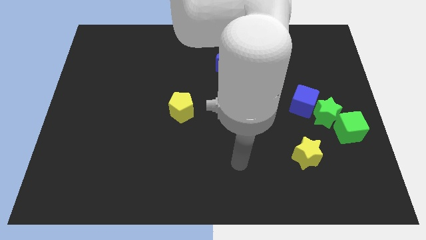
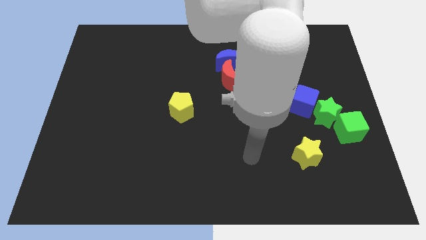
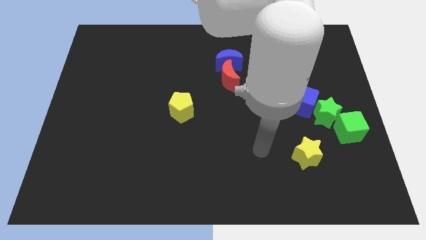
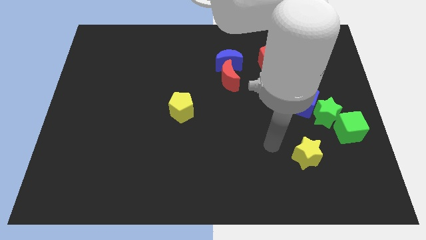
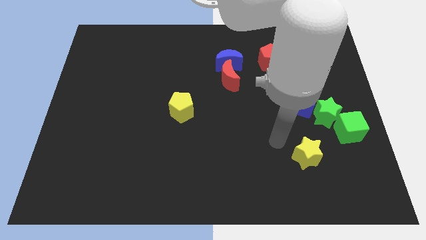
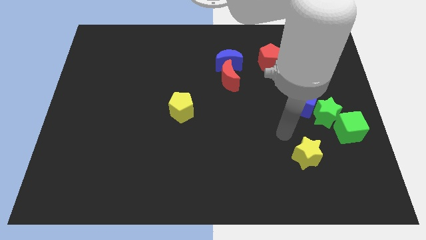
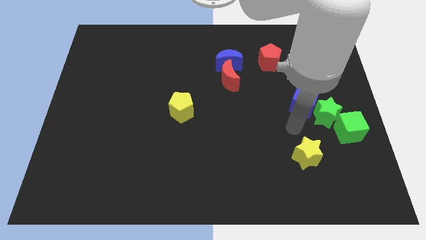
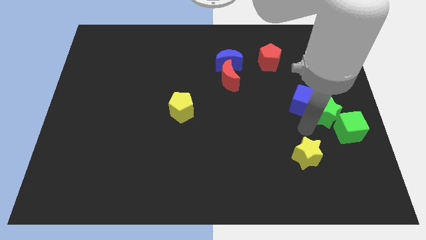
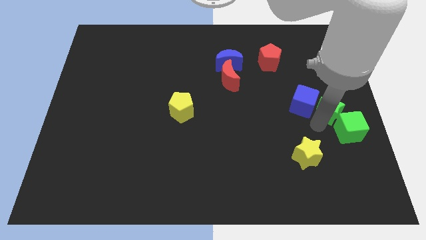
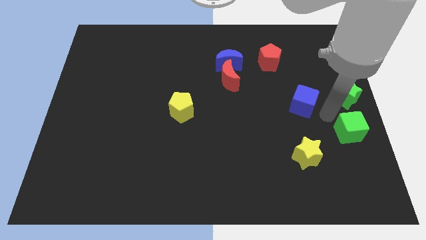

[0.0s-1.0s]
pull the blue cube apart from the green star

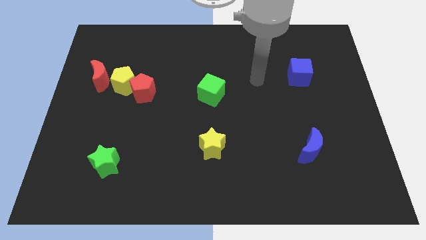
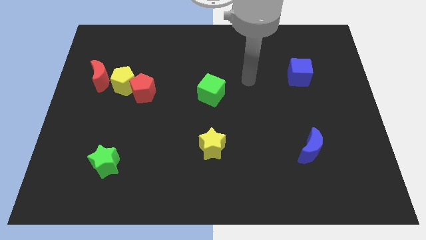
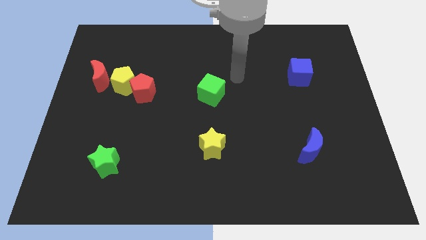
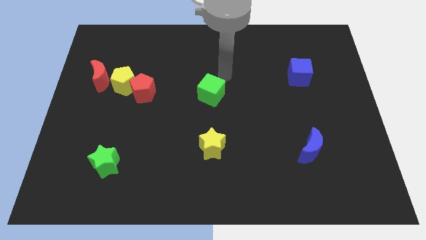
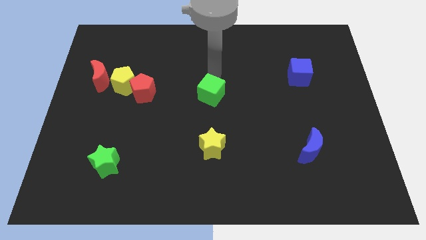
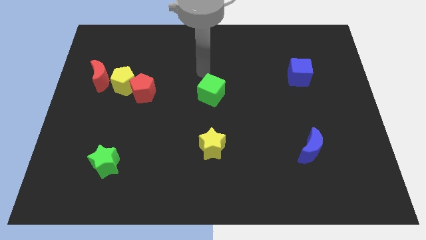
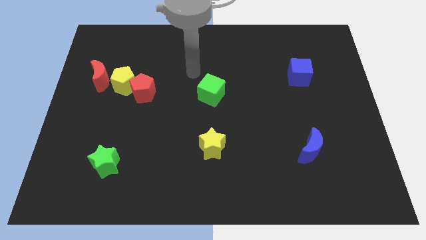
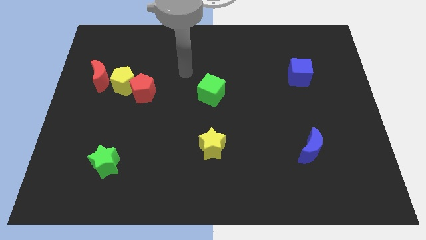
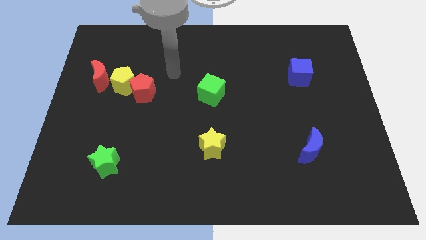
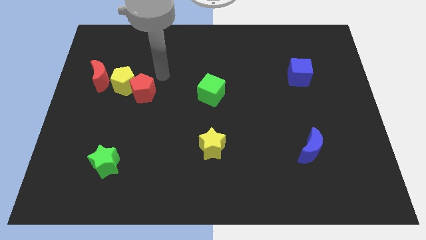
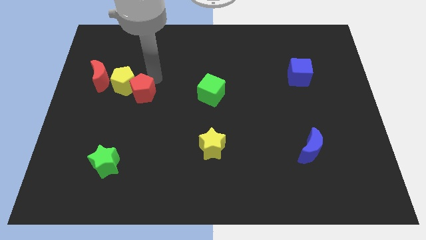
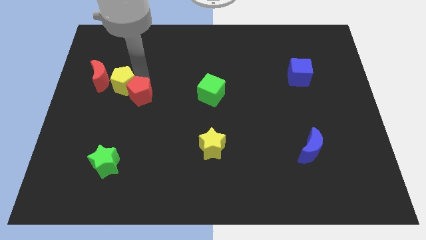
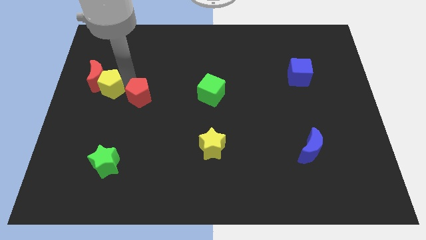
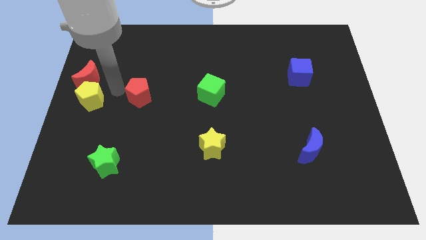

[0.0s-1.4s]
move the red pentagon away from the yellow pentagon

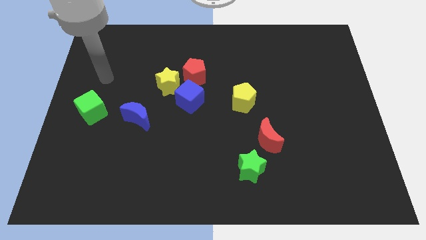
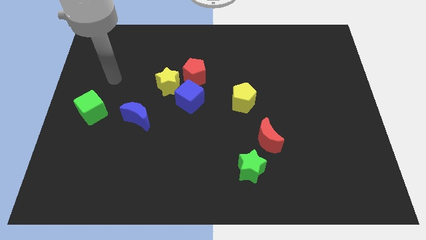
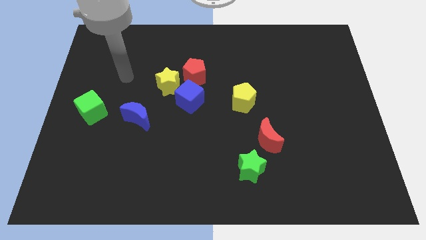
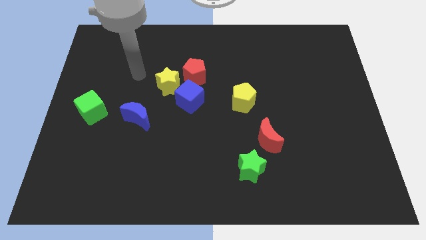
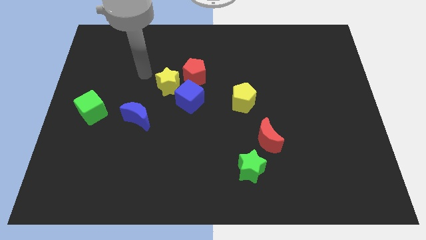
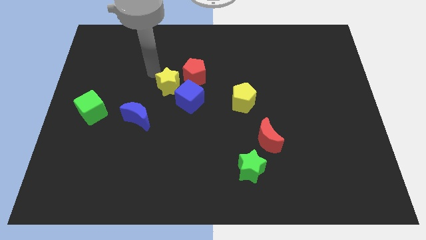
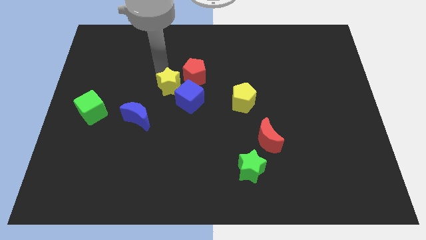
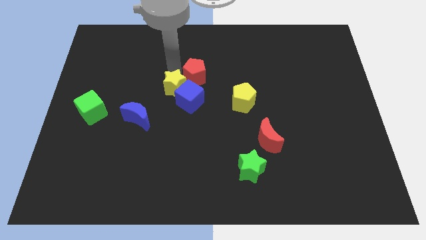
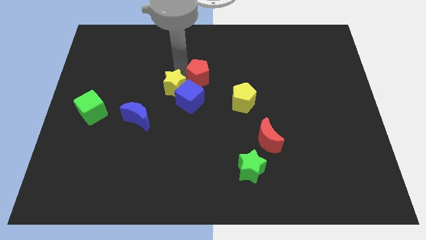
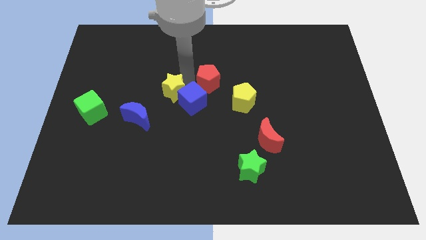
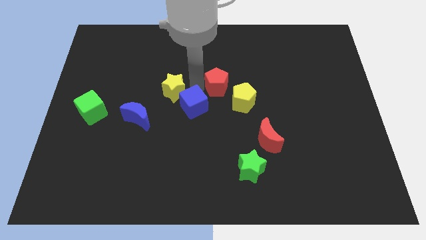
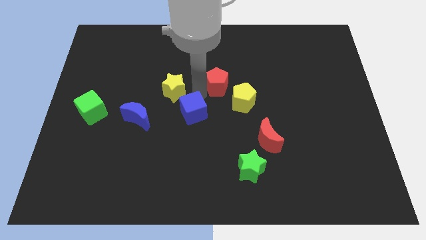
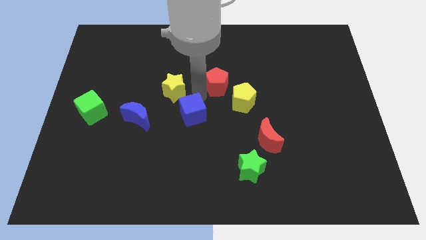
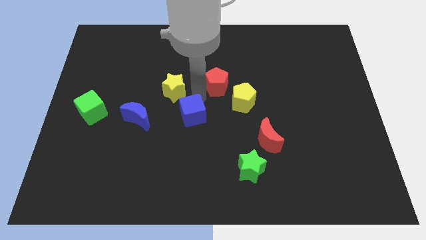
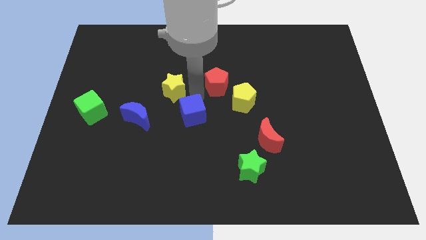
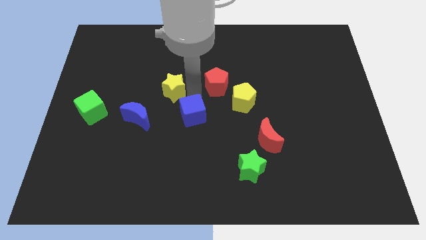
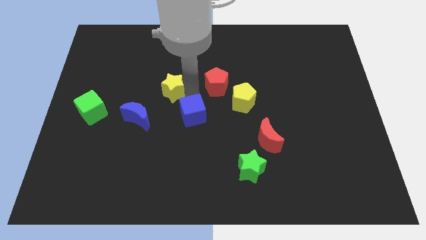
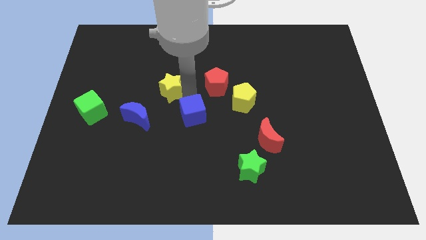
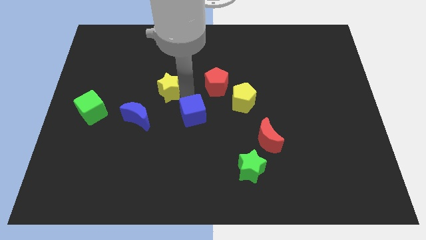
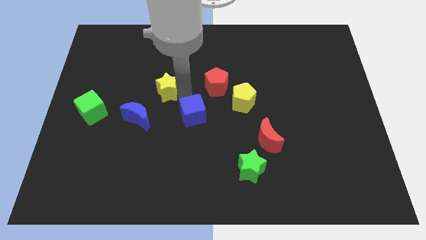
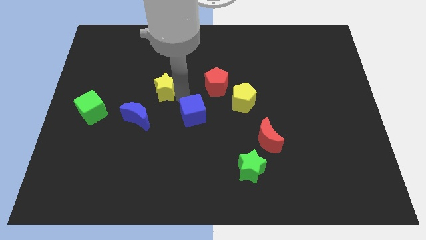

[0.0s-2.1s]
separate the yellow star from the blue cube and red pentagon

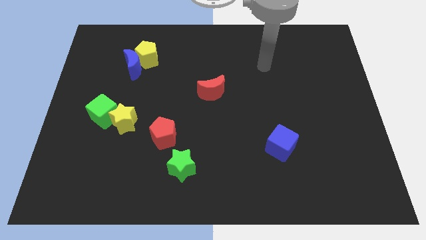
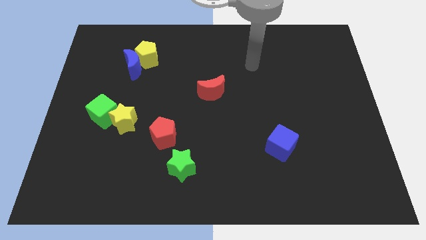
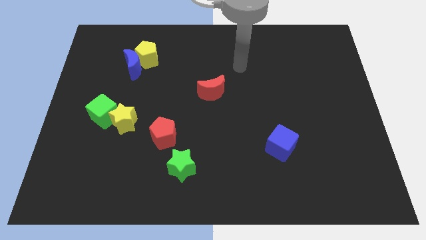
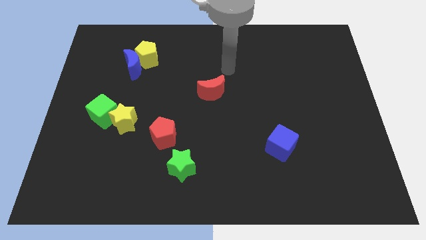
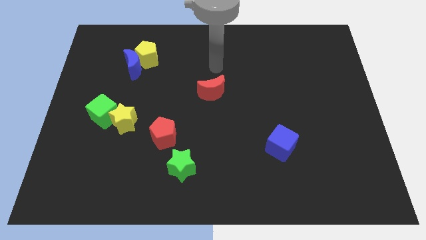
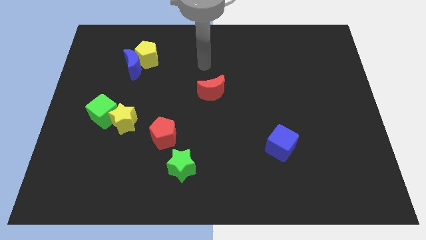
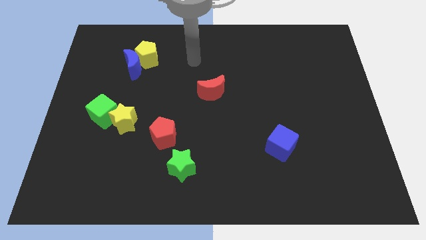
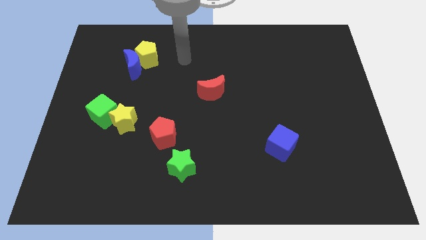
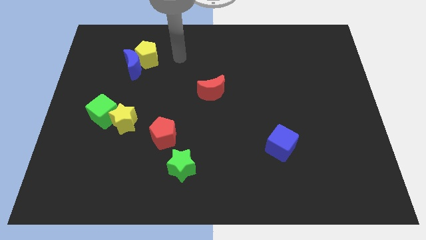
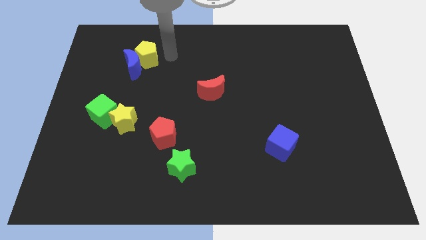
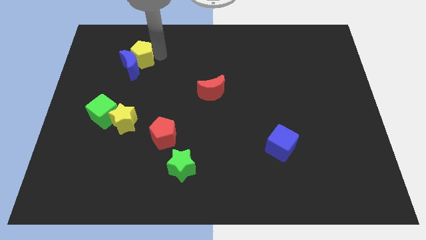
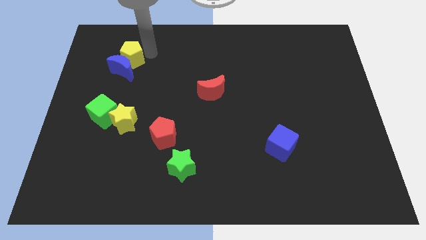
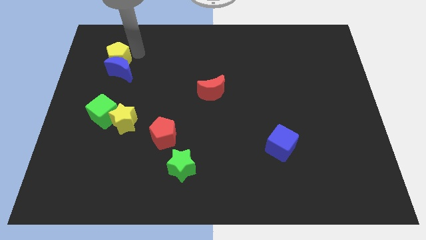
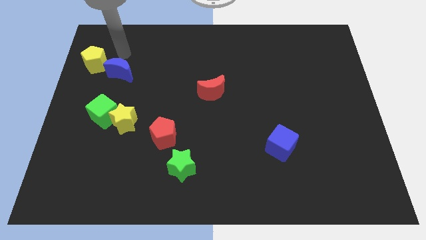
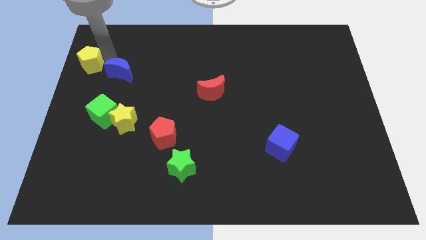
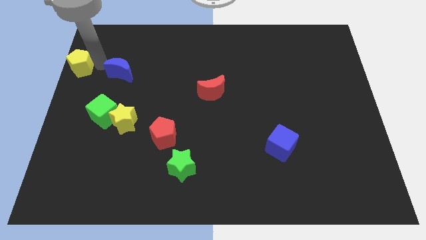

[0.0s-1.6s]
pull the blue moon apart from the yellow pentagon

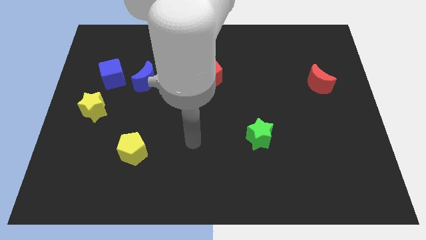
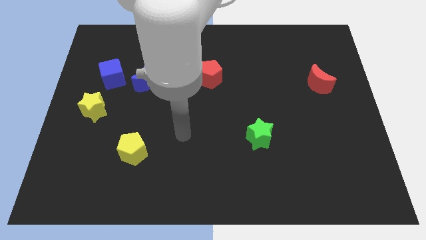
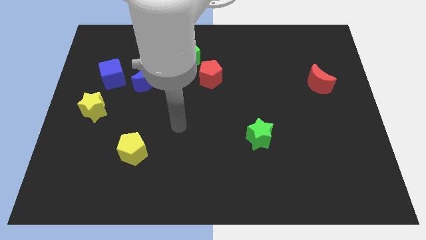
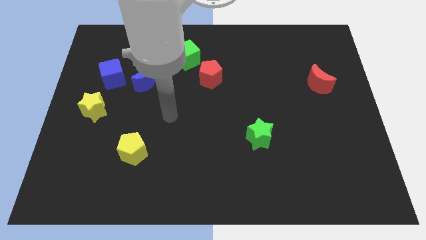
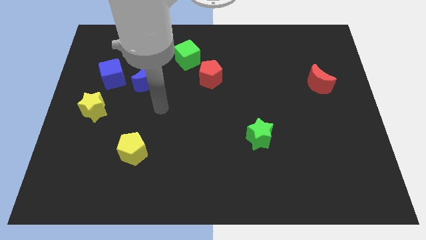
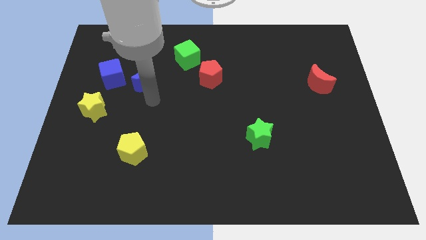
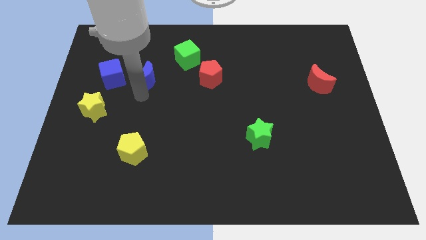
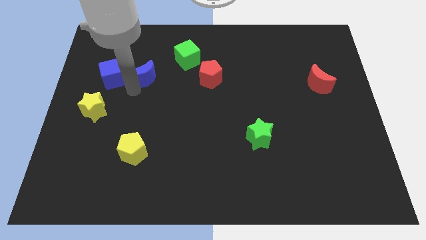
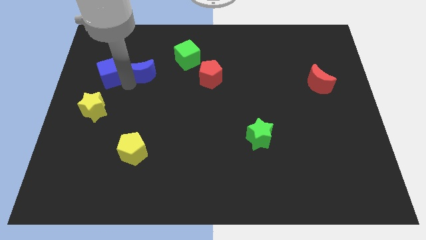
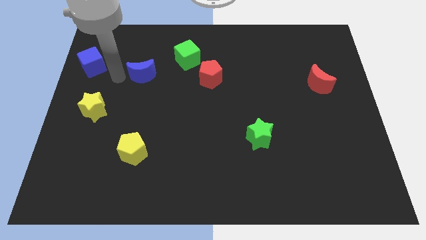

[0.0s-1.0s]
pull the blue moon apart from the blue cube

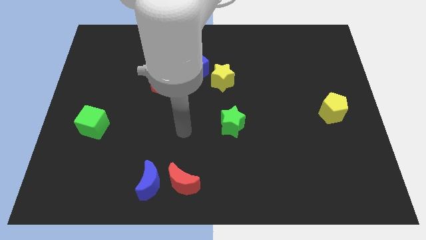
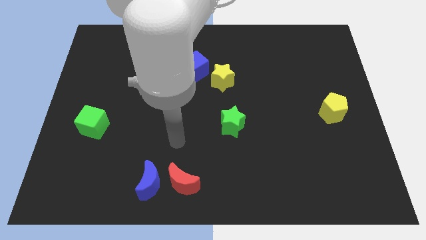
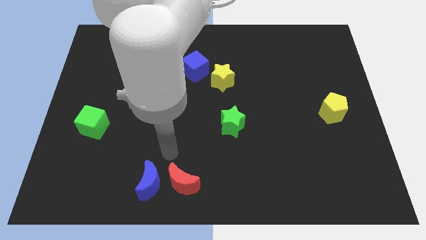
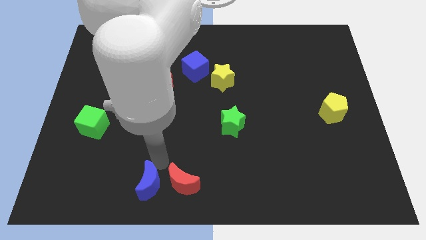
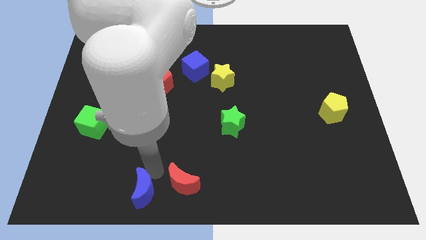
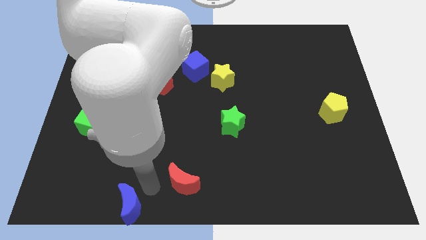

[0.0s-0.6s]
separate the red moon from the blue moon

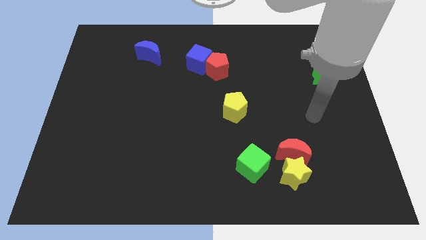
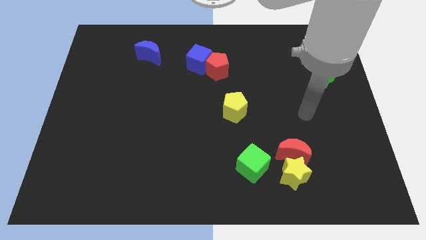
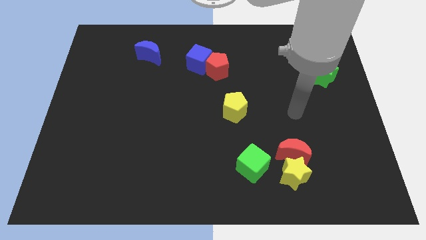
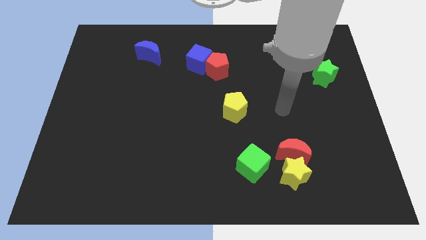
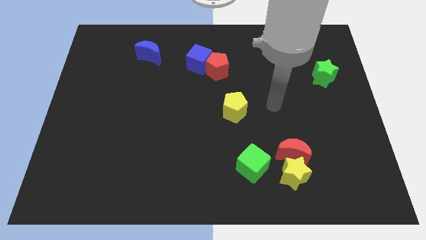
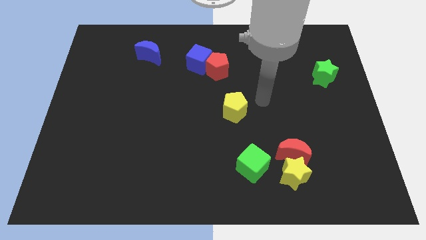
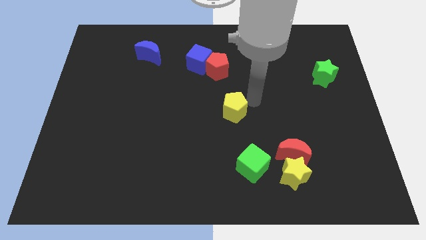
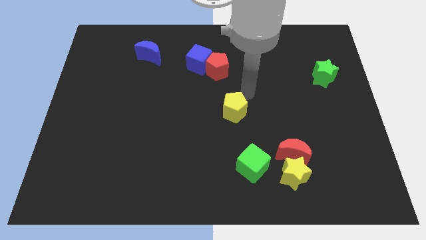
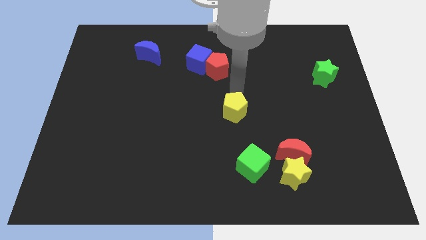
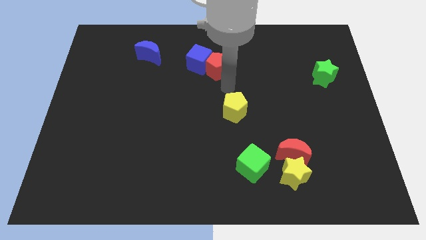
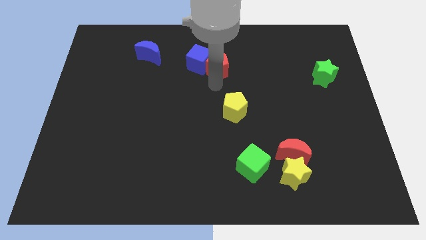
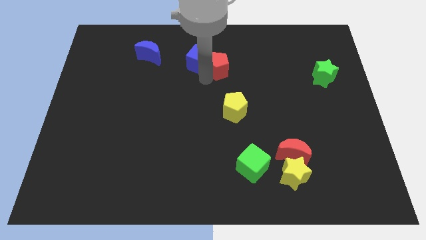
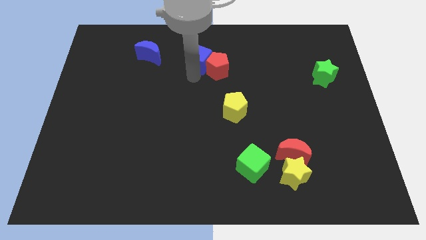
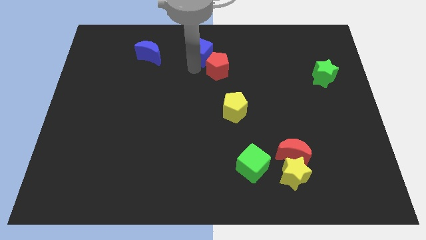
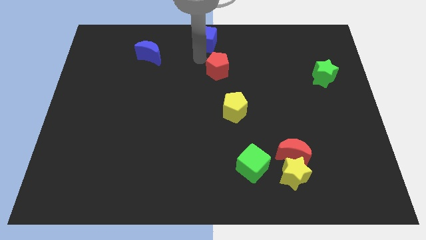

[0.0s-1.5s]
separate the red pentagon from the blue cube

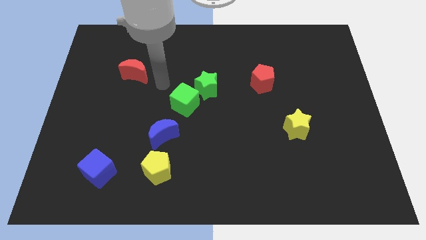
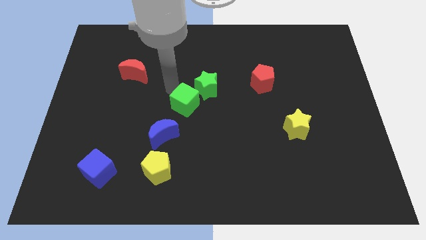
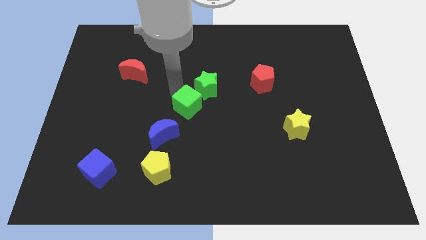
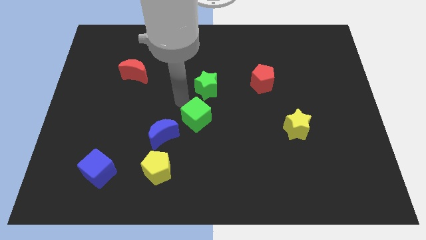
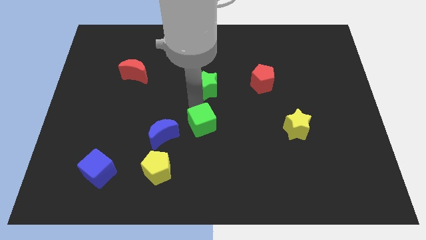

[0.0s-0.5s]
move the green star away from the green cube
